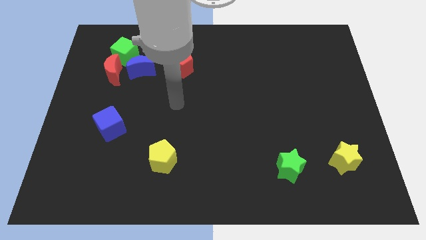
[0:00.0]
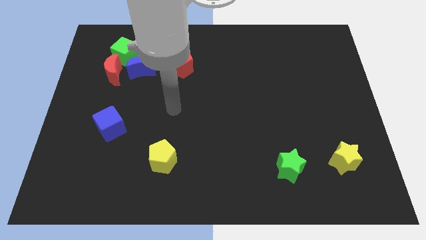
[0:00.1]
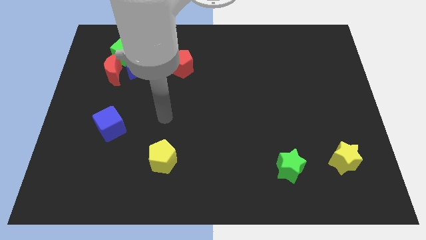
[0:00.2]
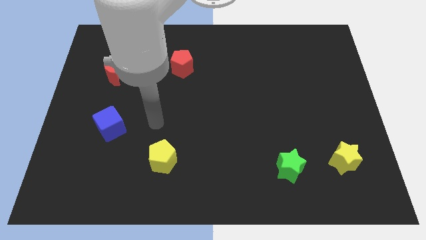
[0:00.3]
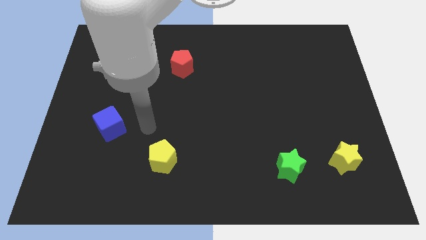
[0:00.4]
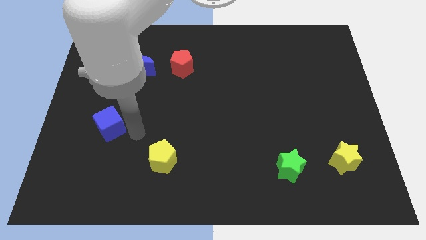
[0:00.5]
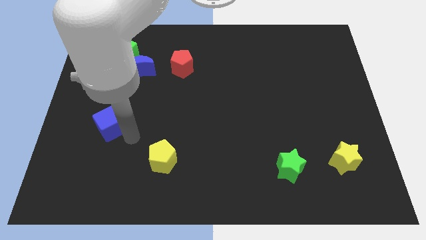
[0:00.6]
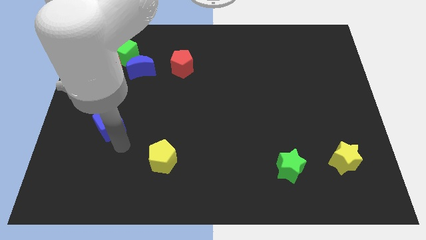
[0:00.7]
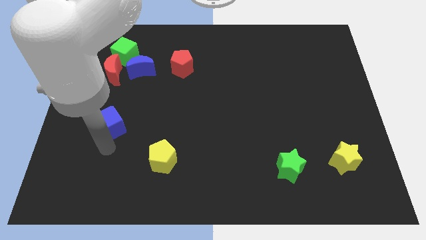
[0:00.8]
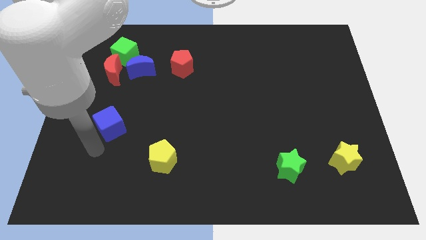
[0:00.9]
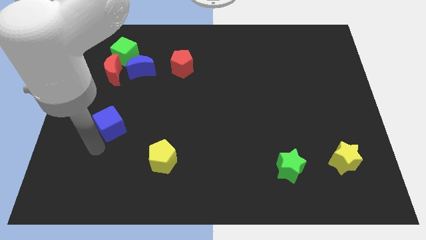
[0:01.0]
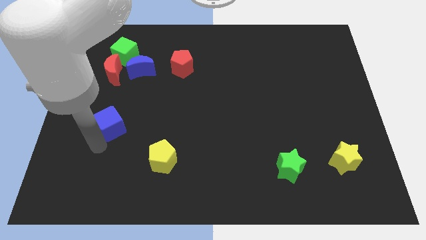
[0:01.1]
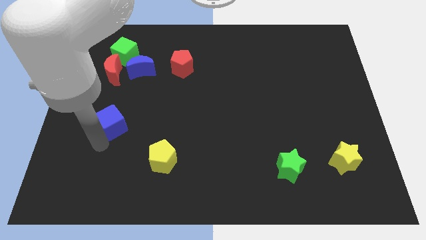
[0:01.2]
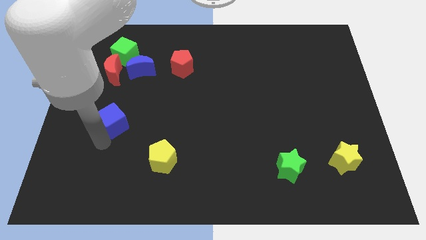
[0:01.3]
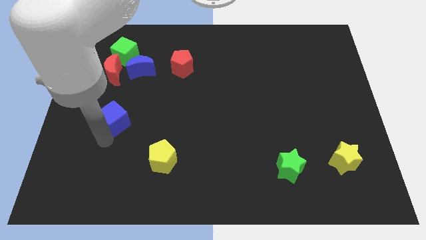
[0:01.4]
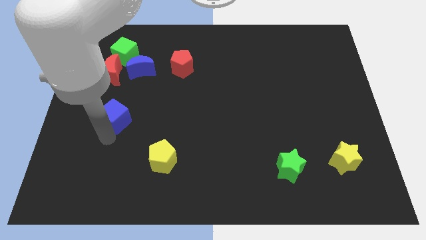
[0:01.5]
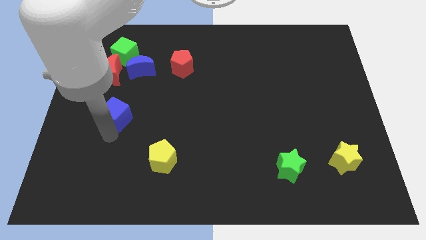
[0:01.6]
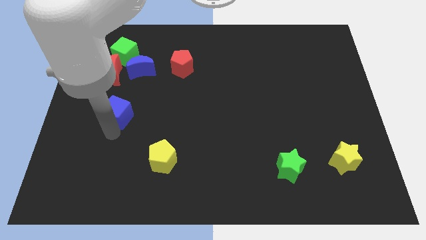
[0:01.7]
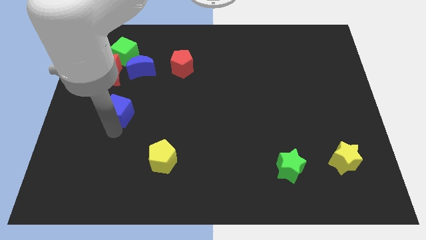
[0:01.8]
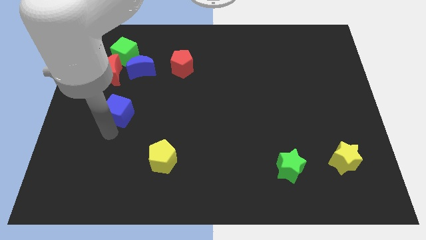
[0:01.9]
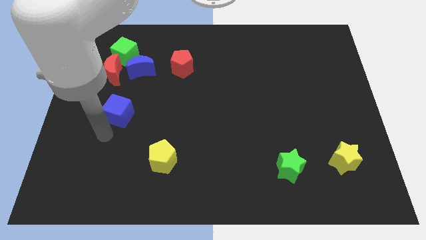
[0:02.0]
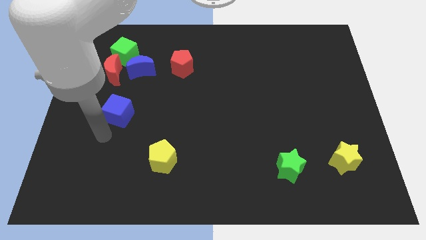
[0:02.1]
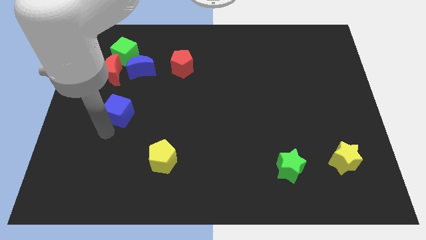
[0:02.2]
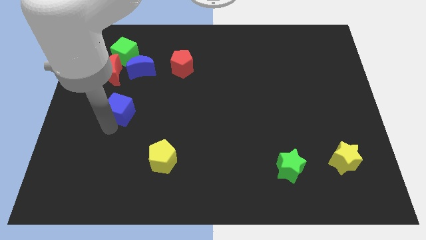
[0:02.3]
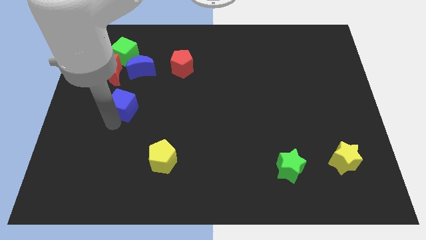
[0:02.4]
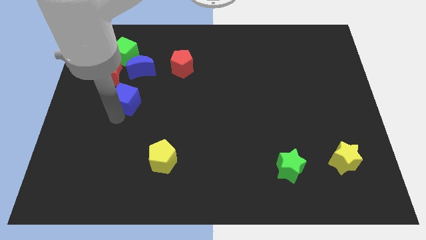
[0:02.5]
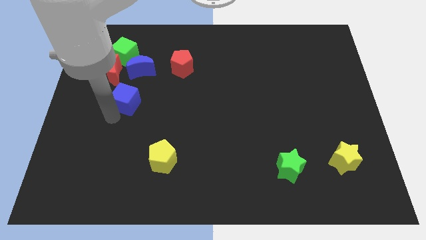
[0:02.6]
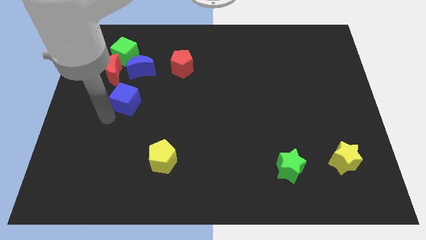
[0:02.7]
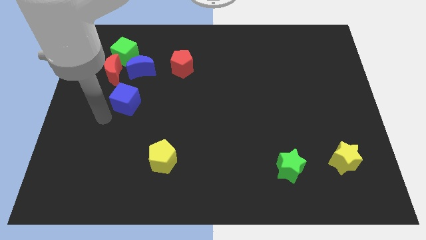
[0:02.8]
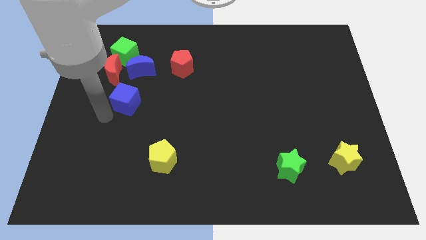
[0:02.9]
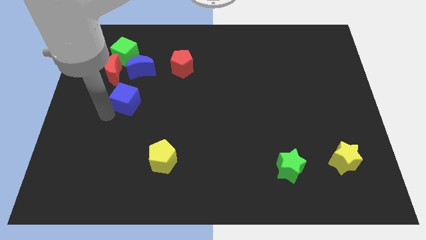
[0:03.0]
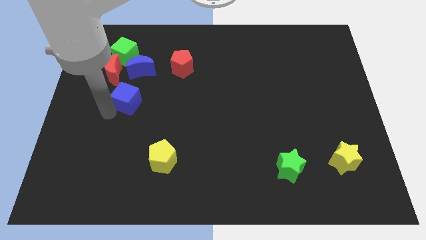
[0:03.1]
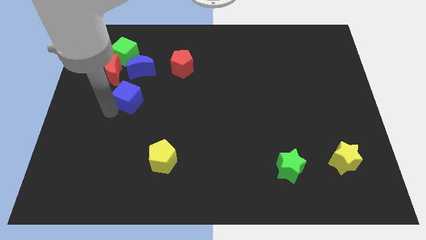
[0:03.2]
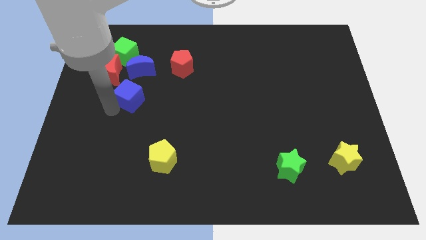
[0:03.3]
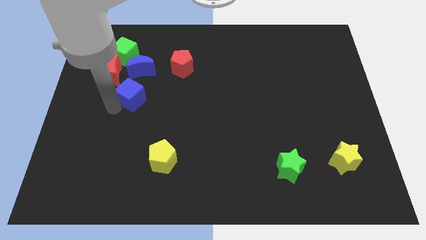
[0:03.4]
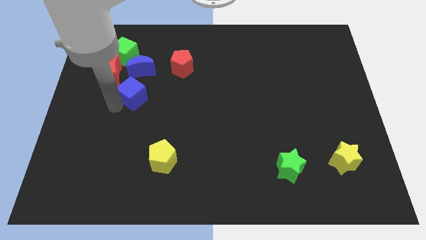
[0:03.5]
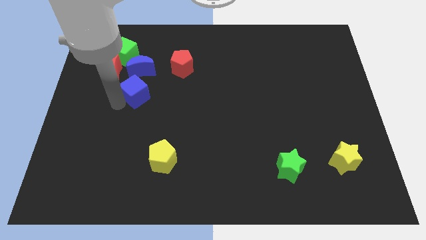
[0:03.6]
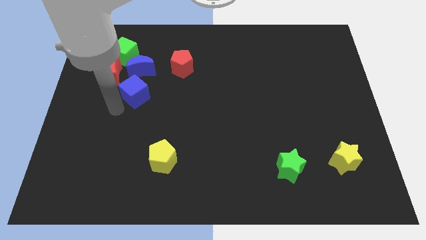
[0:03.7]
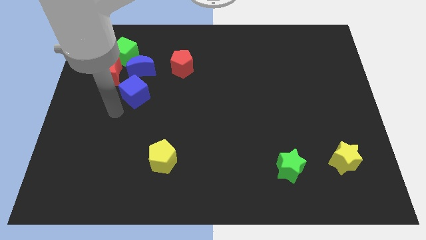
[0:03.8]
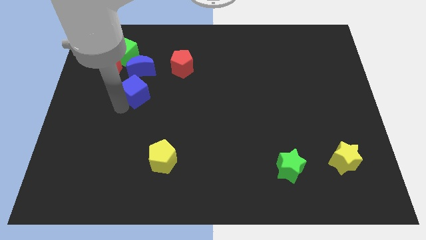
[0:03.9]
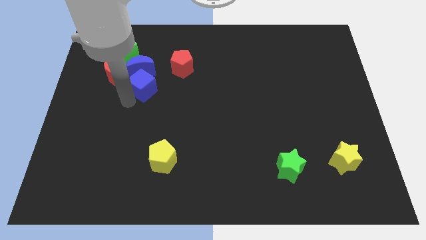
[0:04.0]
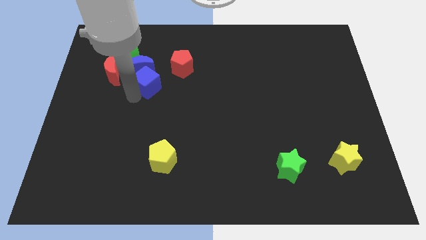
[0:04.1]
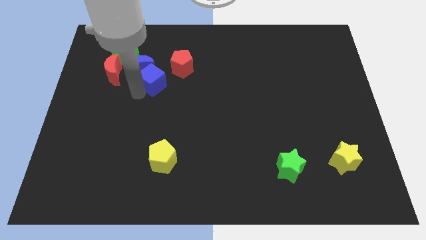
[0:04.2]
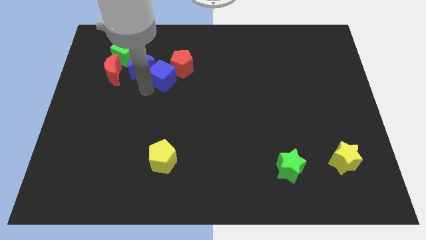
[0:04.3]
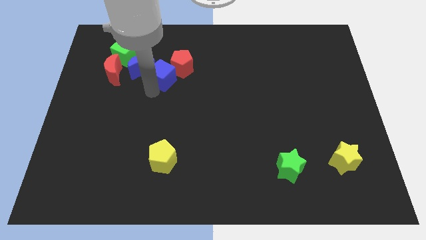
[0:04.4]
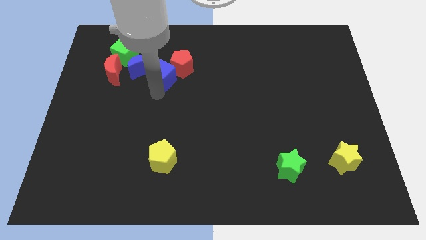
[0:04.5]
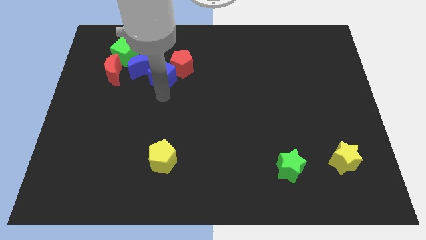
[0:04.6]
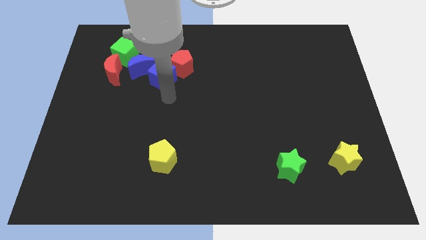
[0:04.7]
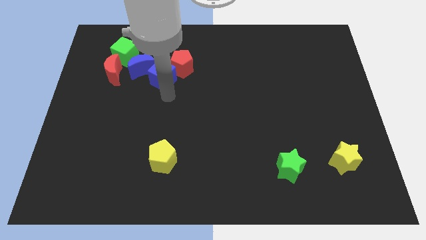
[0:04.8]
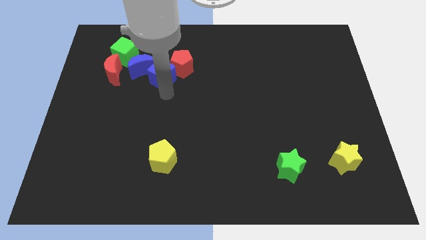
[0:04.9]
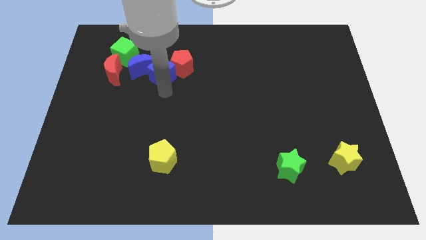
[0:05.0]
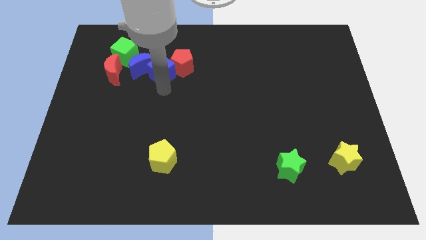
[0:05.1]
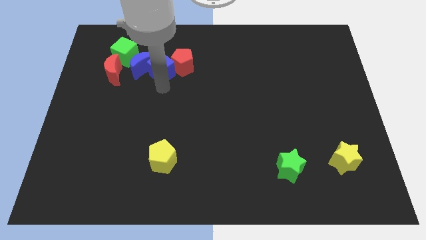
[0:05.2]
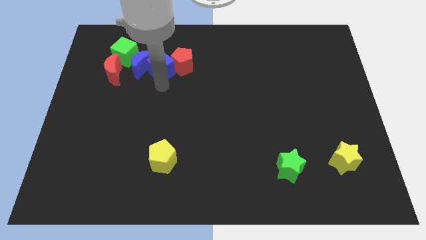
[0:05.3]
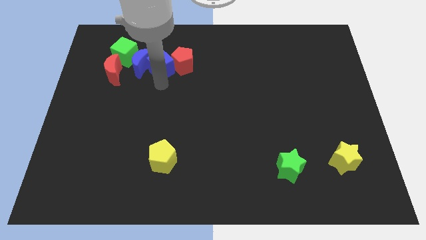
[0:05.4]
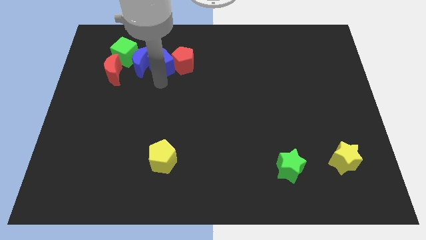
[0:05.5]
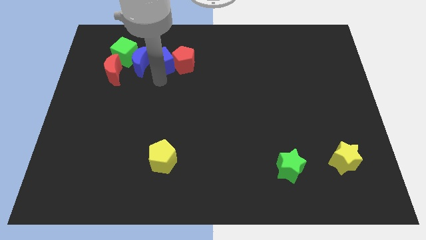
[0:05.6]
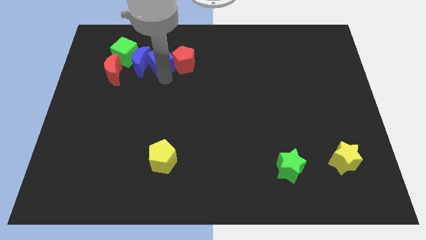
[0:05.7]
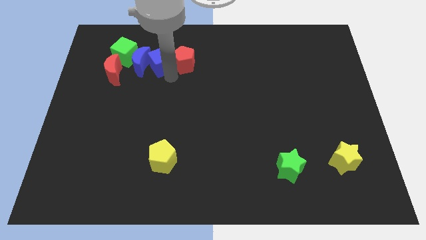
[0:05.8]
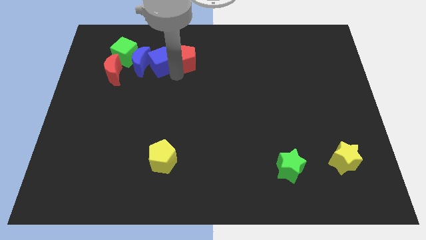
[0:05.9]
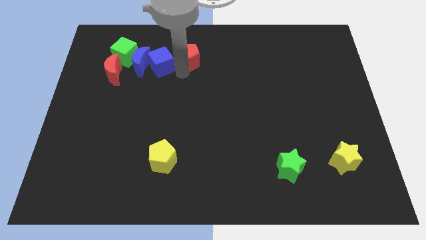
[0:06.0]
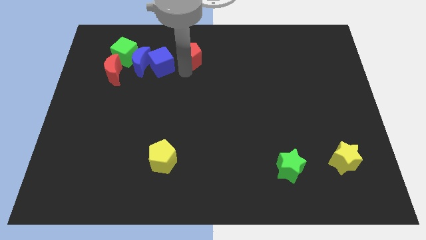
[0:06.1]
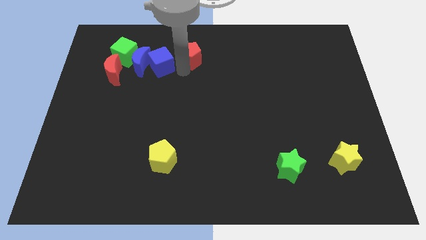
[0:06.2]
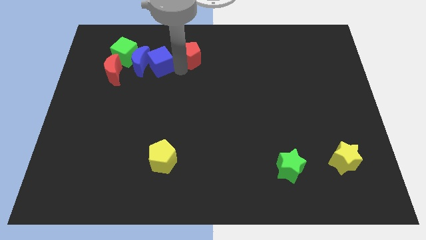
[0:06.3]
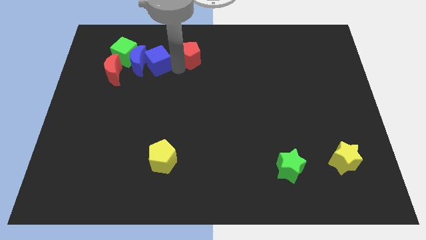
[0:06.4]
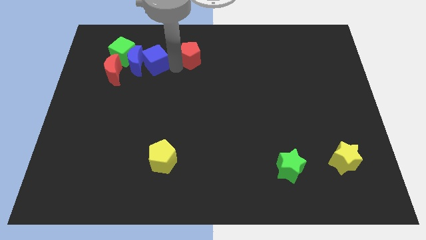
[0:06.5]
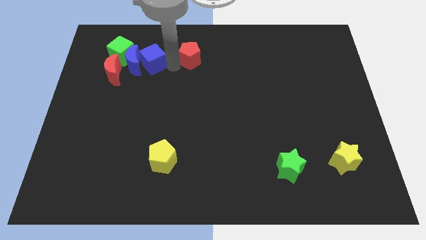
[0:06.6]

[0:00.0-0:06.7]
push the blue cube to the top right of the red moon
